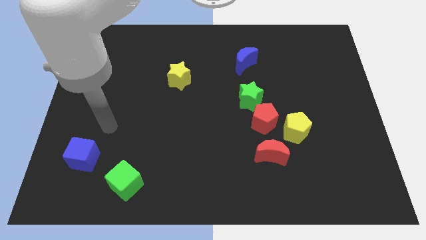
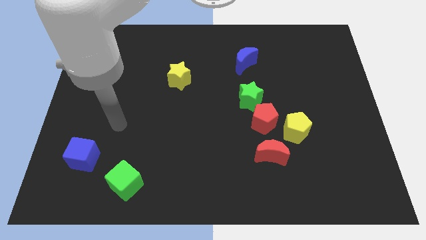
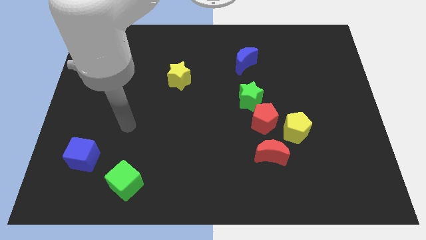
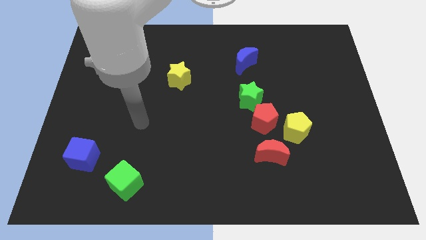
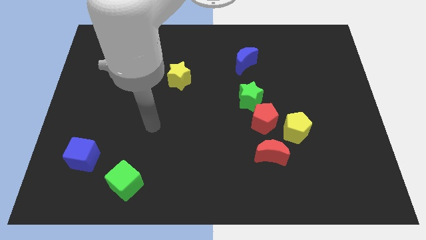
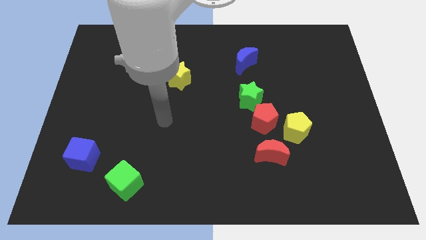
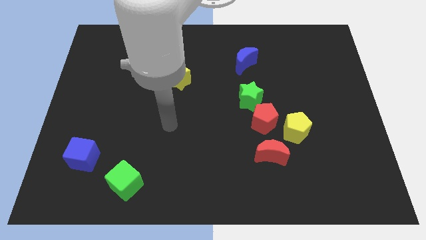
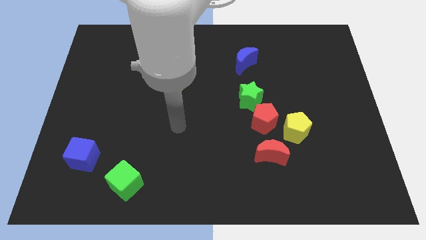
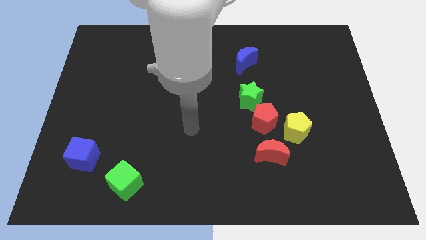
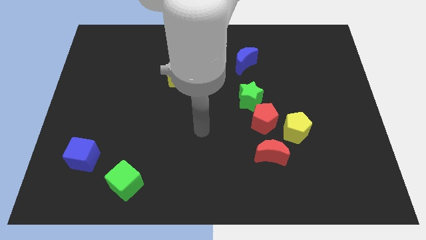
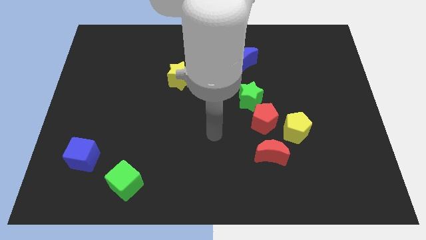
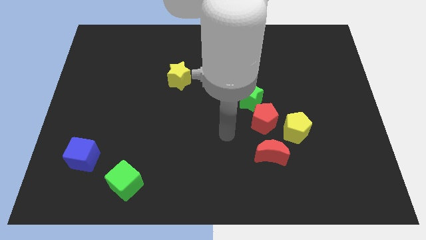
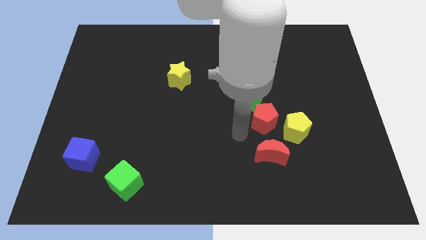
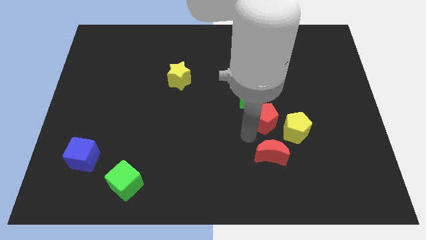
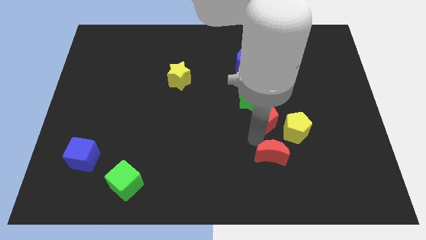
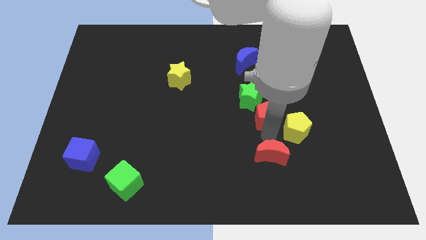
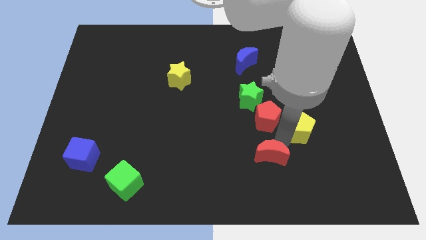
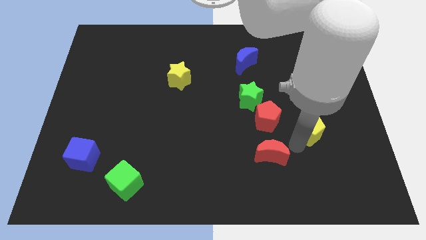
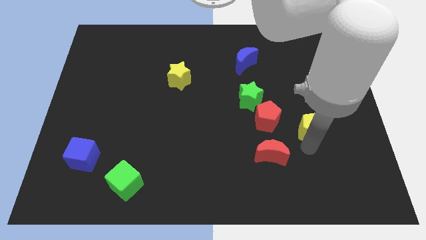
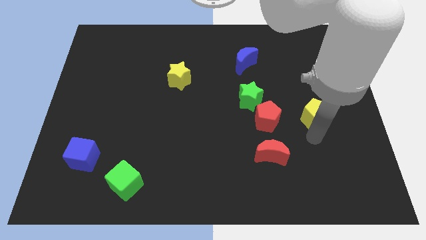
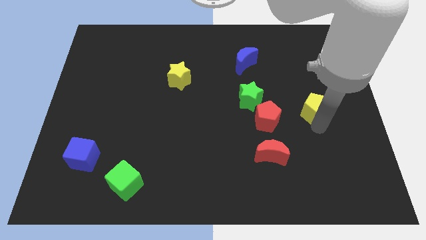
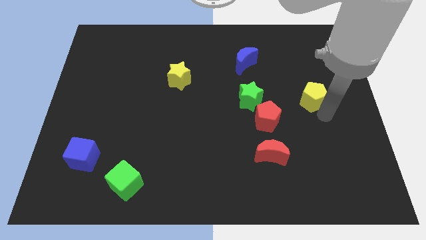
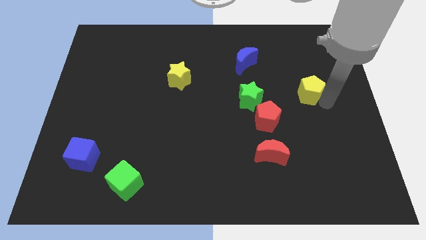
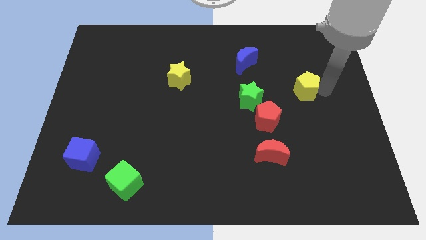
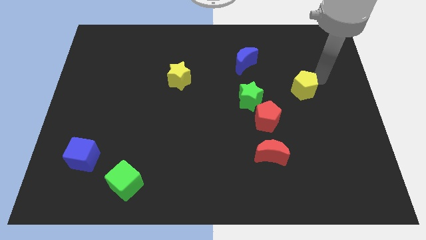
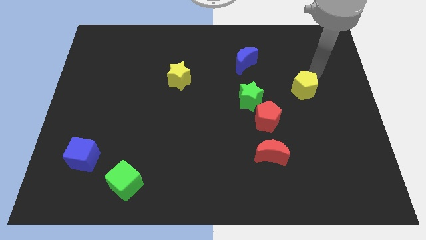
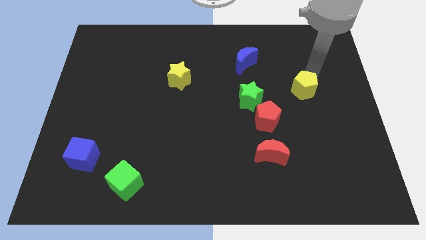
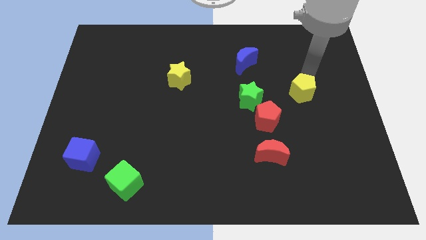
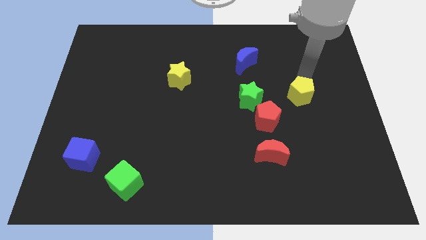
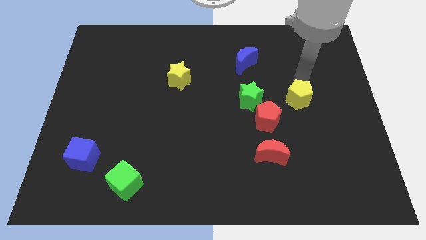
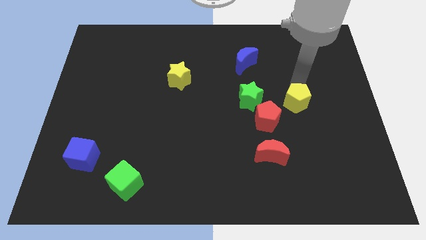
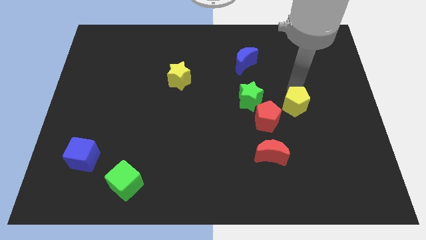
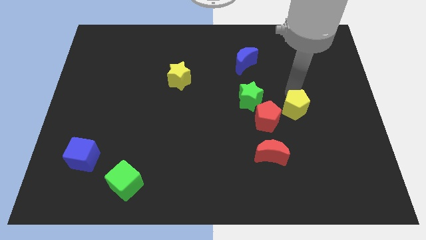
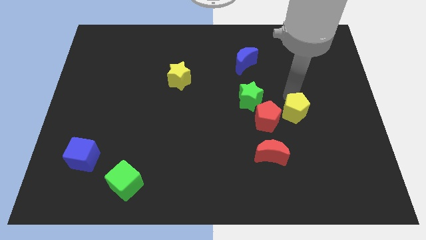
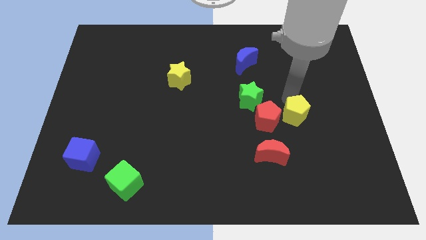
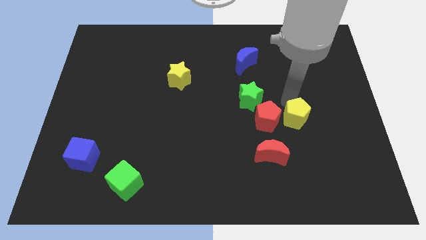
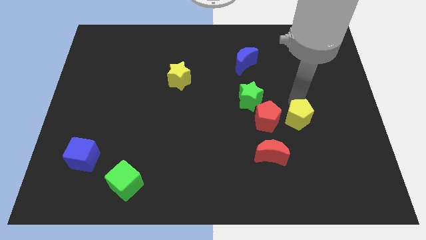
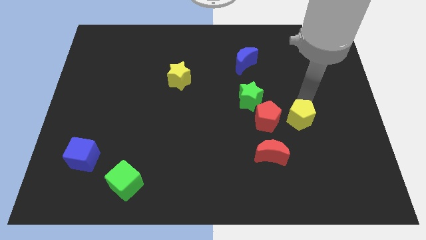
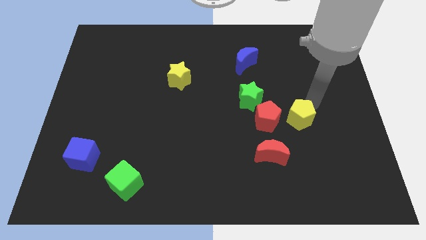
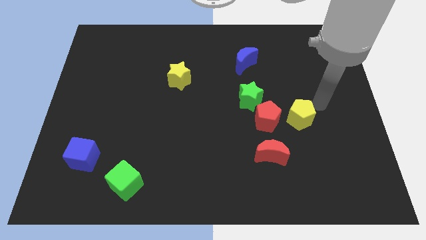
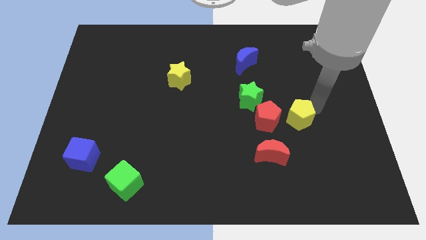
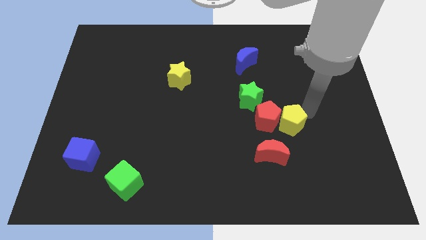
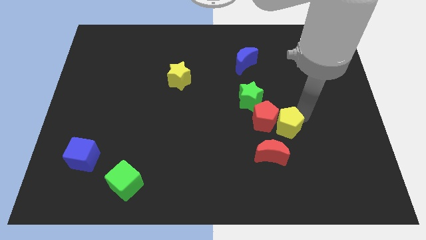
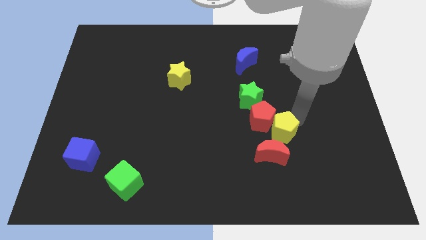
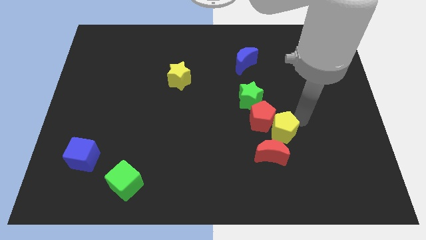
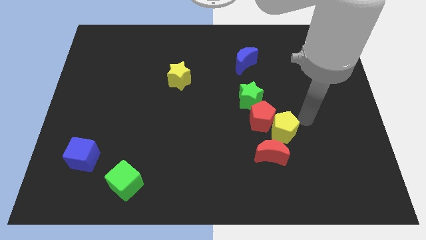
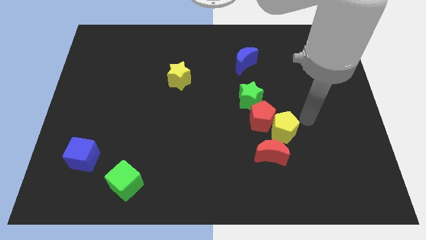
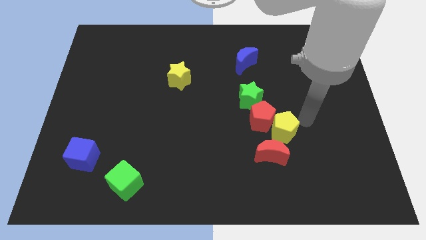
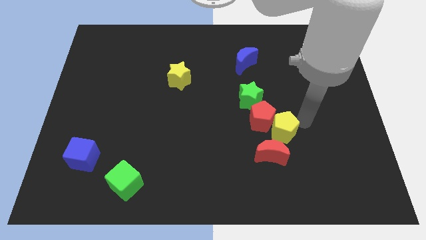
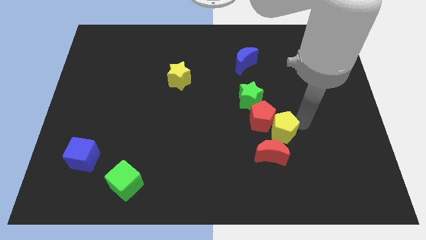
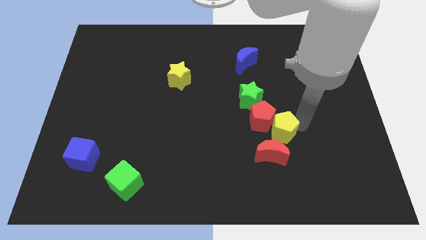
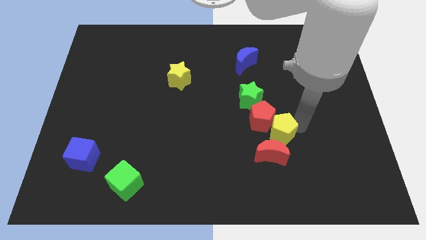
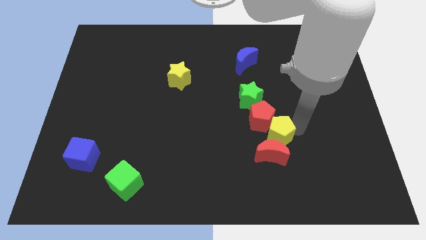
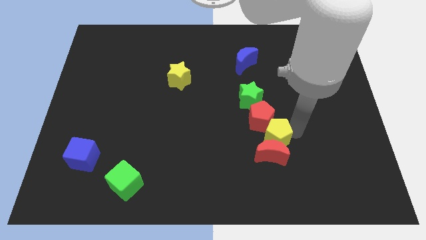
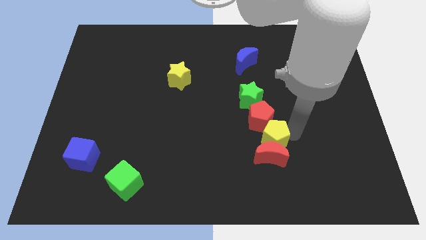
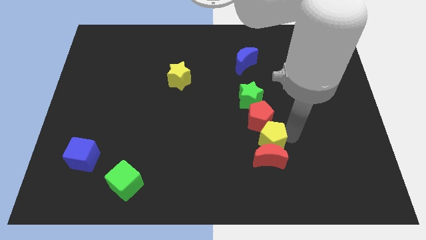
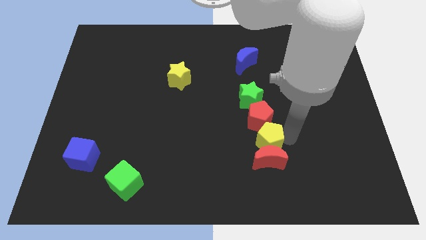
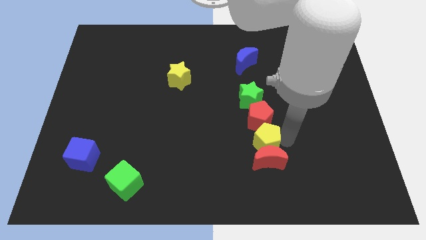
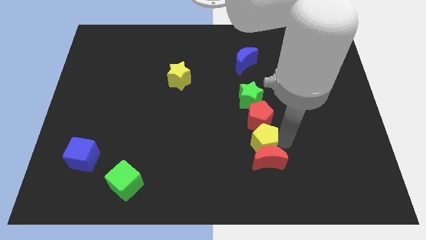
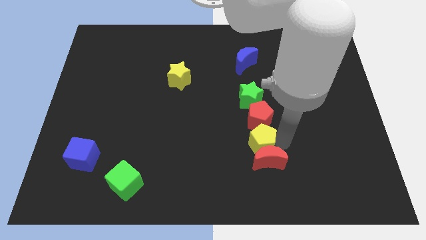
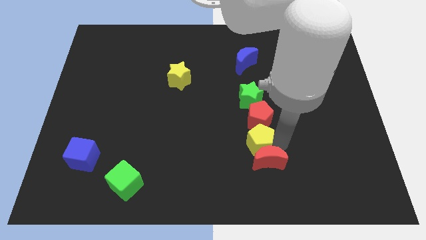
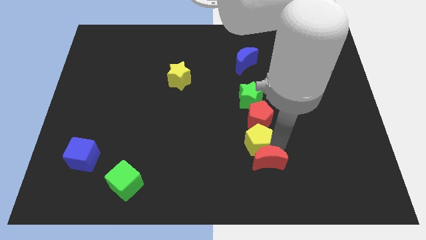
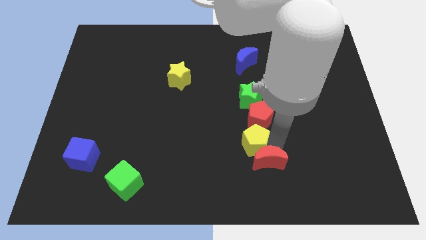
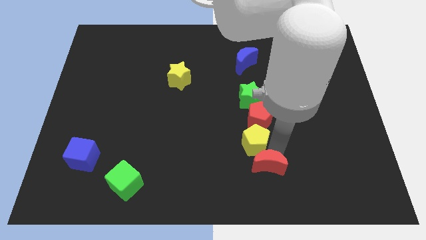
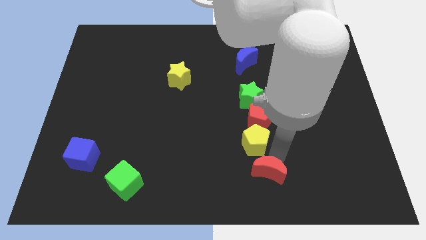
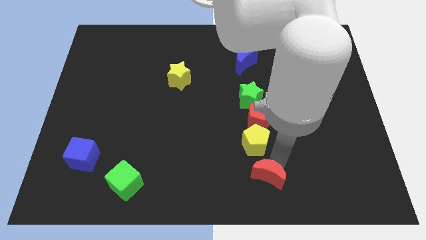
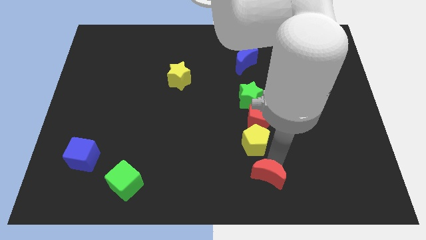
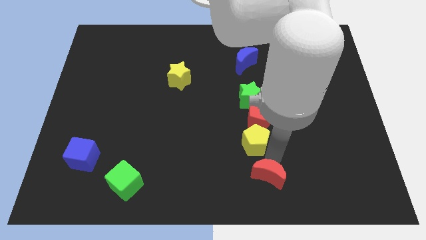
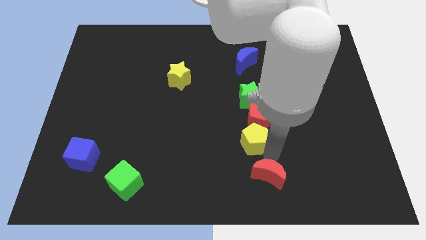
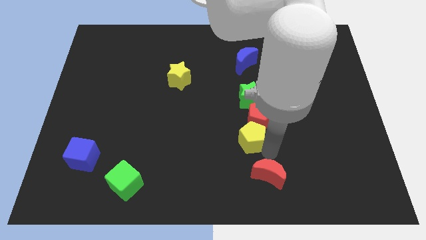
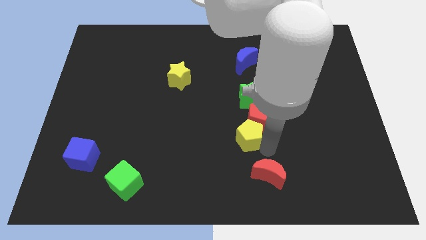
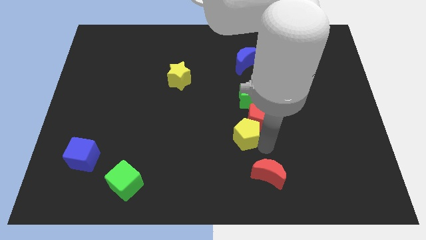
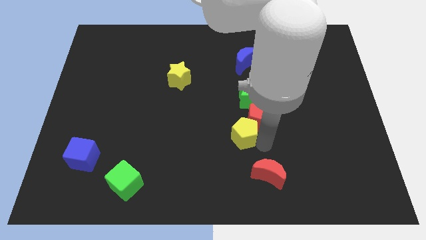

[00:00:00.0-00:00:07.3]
move the yellow pentagon to the center
